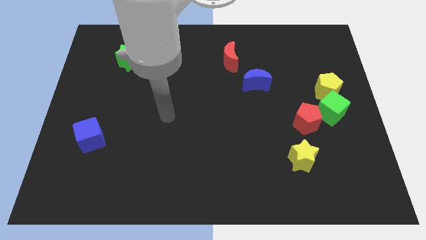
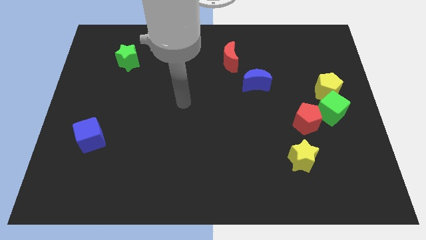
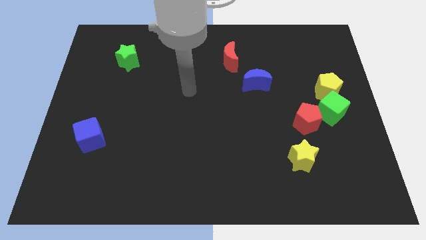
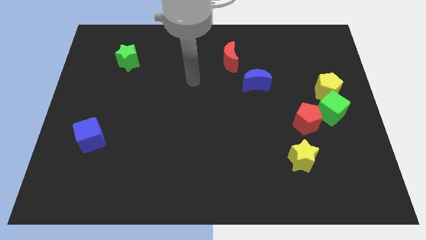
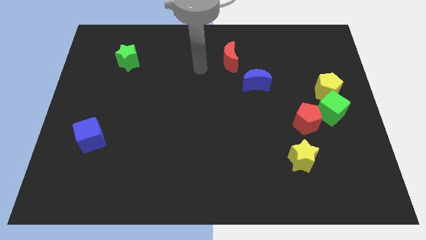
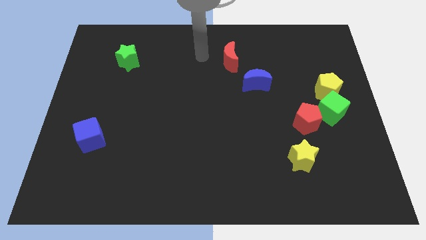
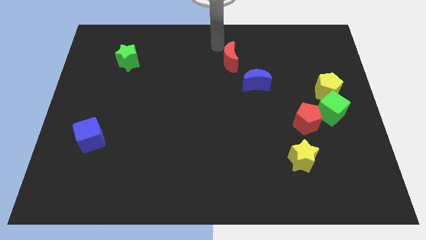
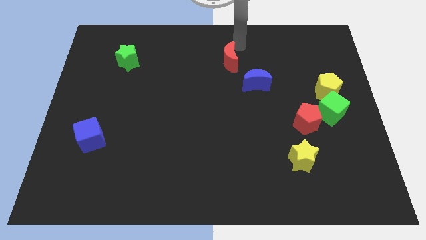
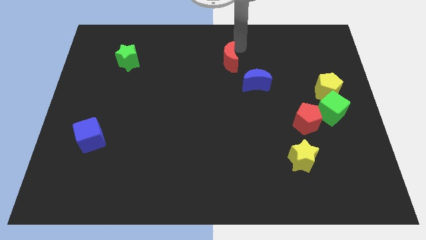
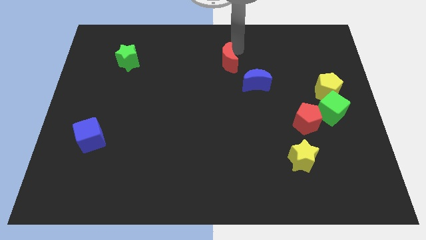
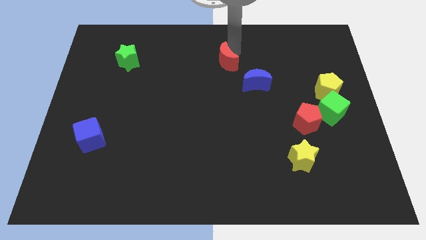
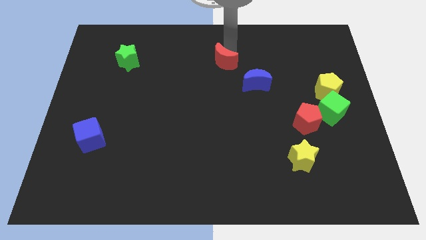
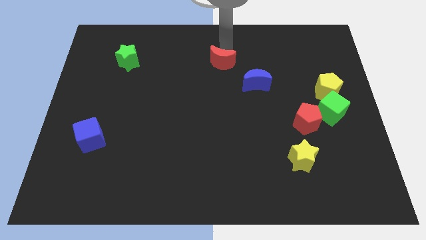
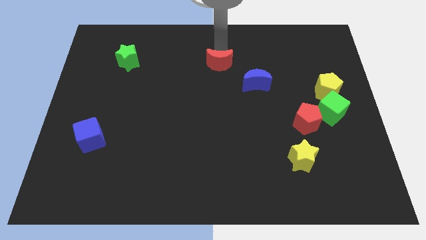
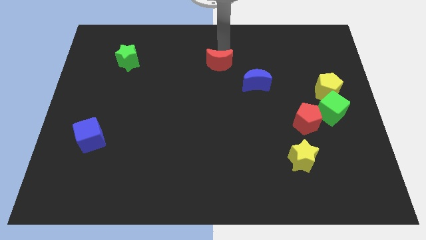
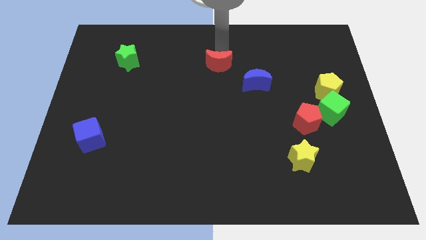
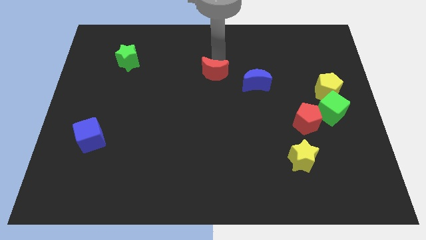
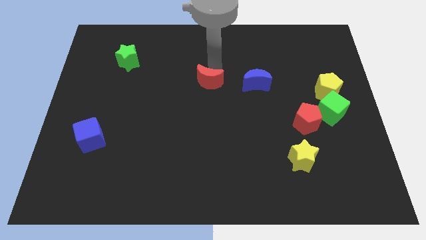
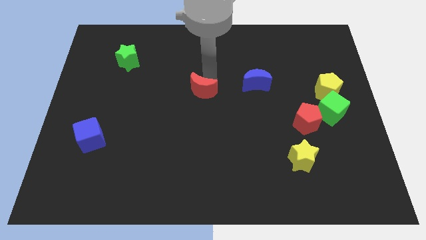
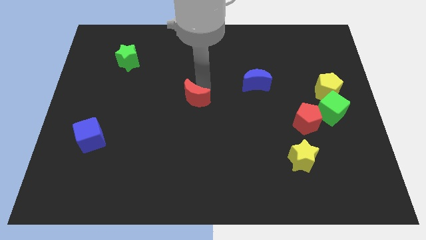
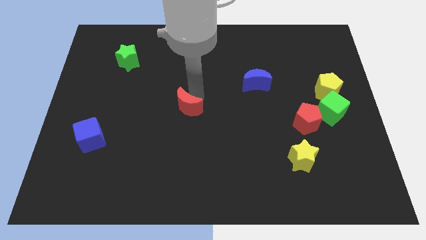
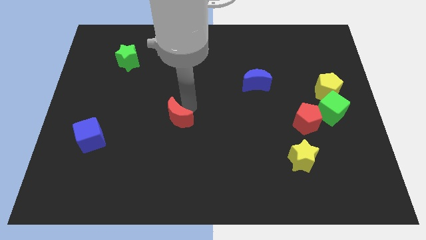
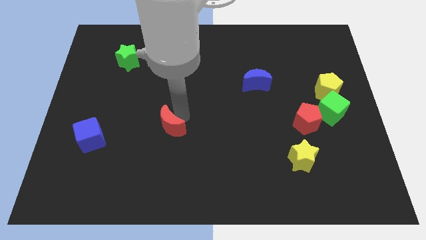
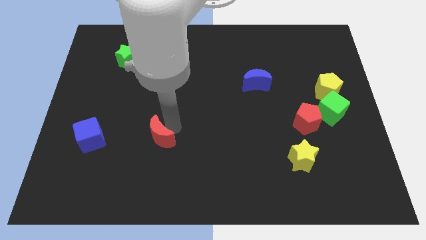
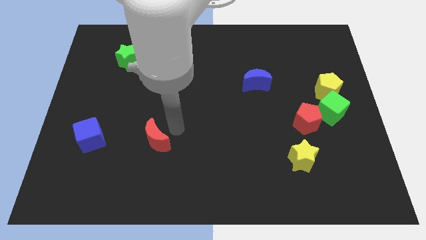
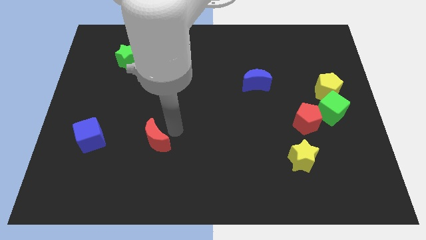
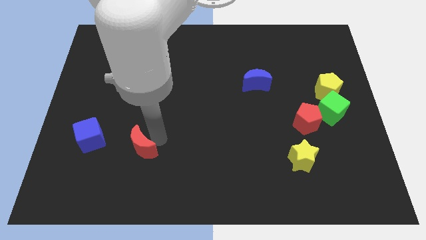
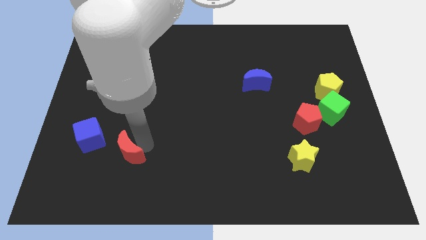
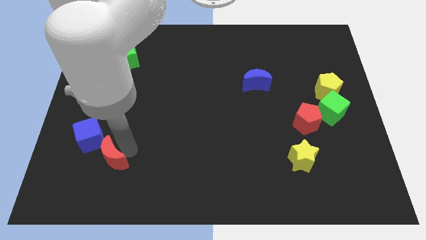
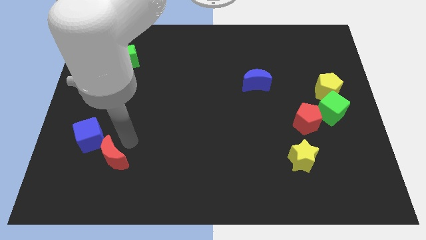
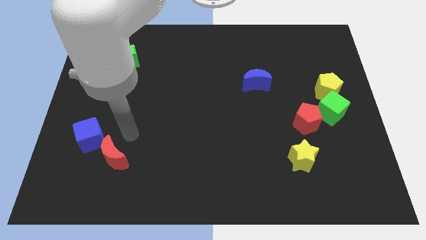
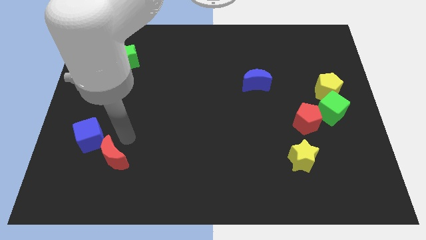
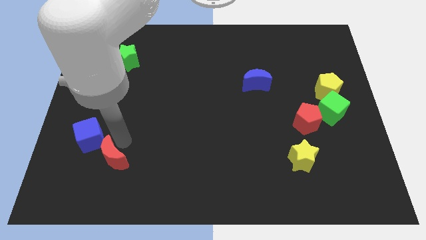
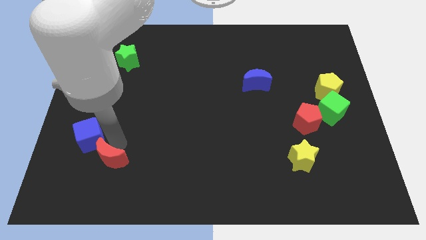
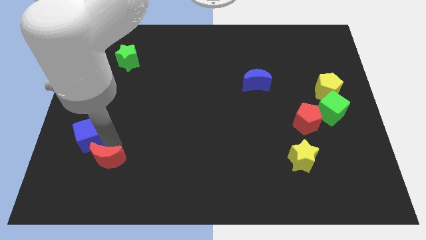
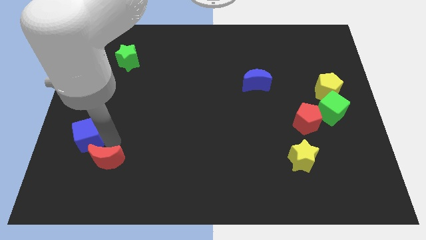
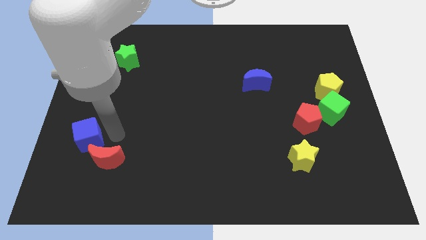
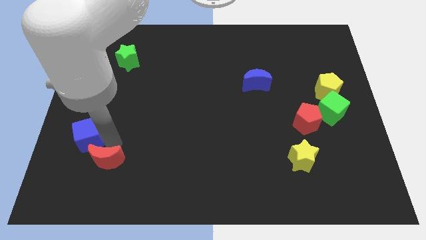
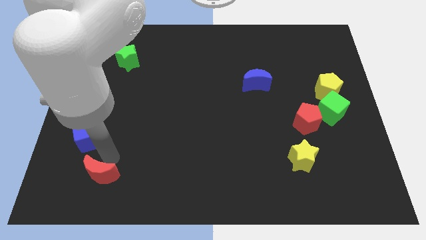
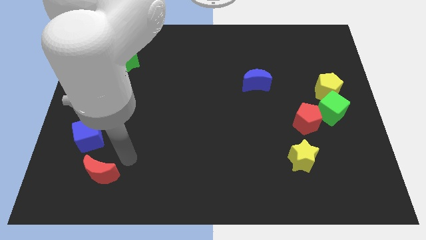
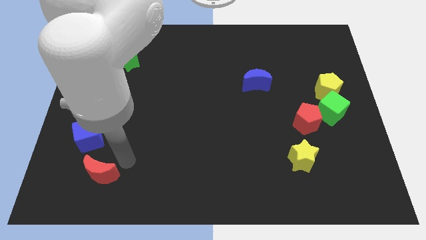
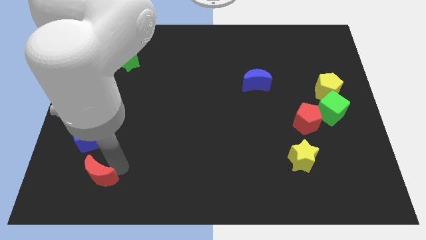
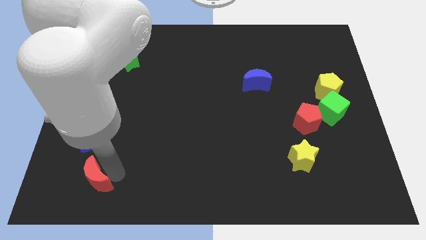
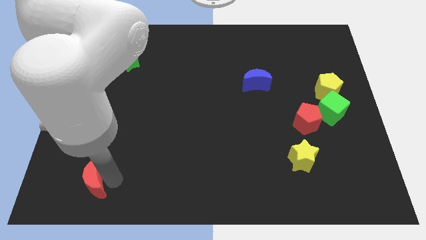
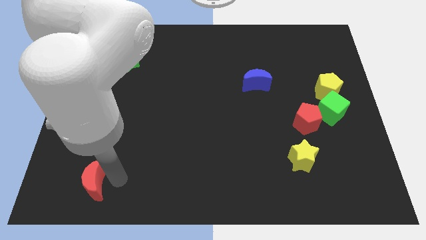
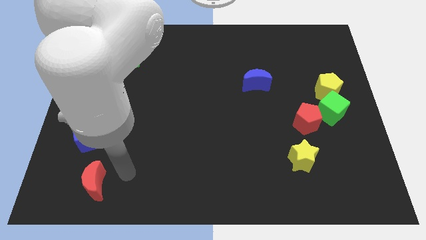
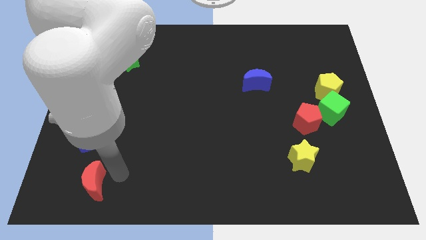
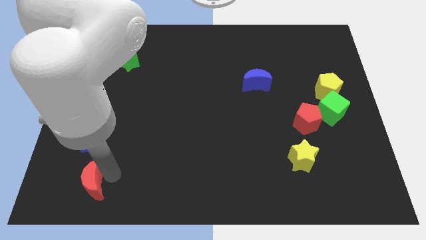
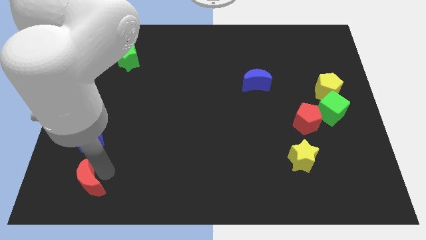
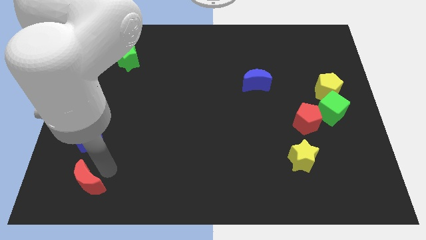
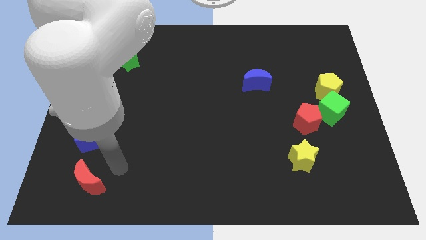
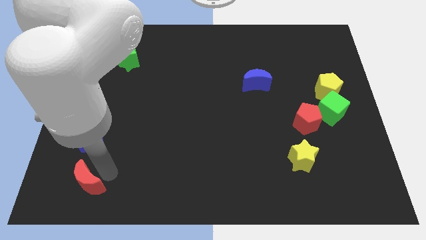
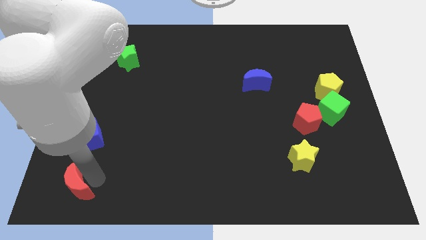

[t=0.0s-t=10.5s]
put the red moon to the lower left corner

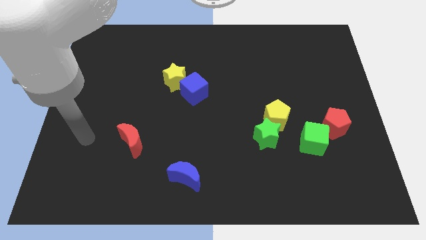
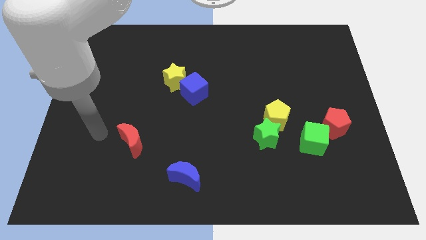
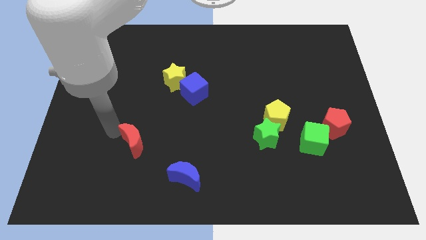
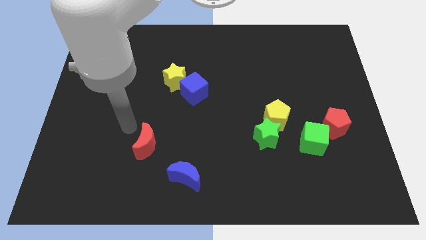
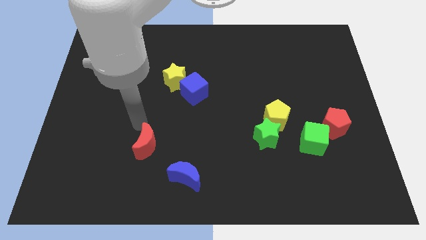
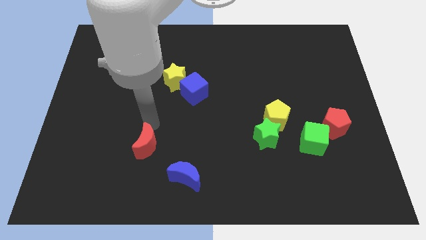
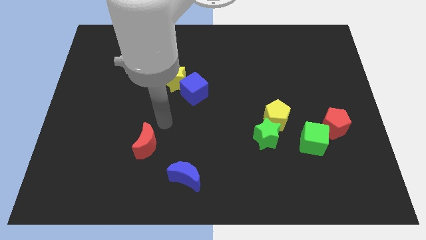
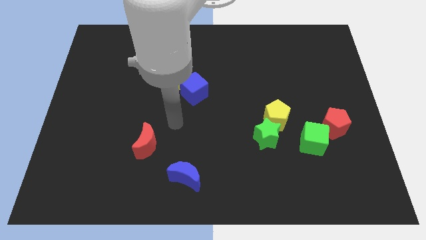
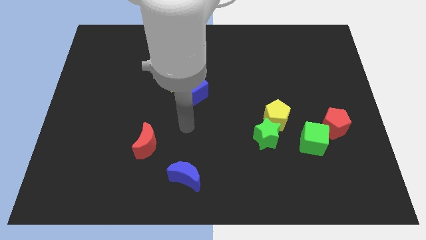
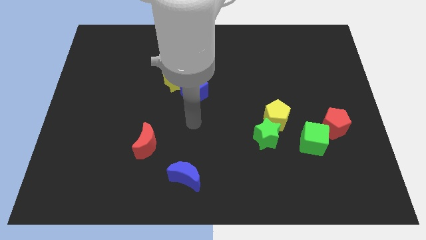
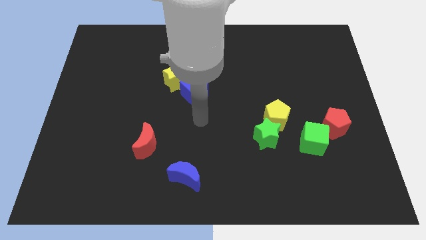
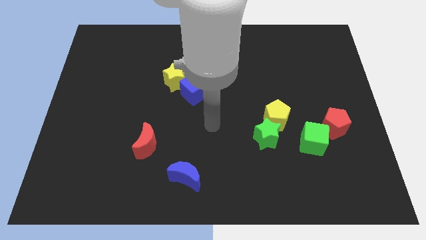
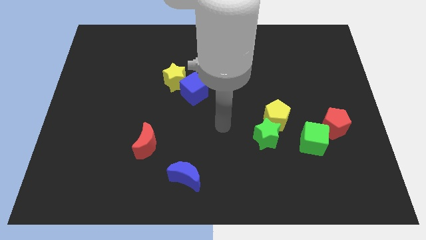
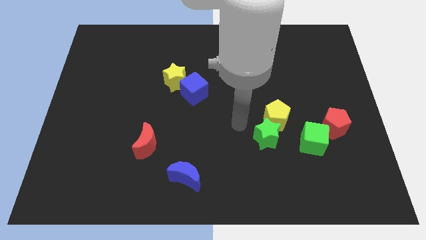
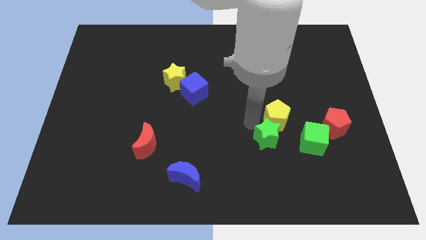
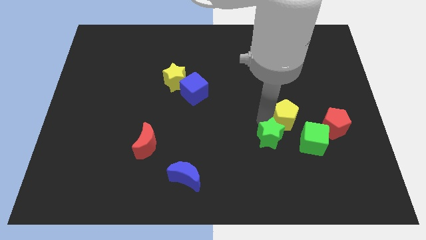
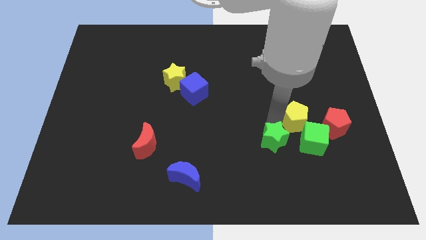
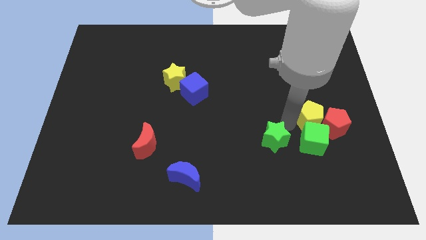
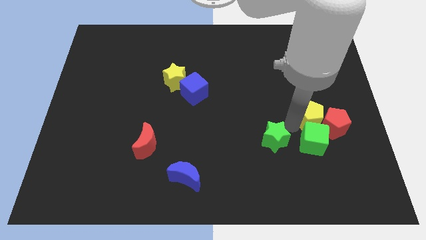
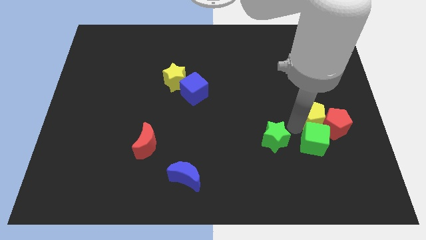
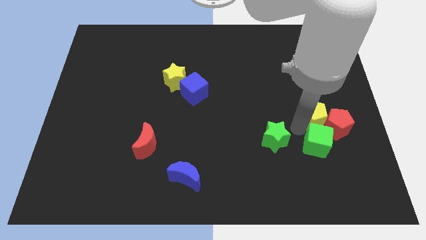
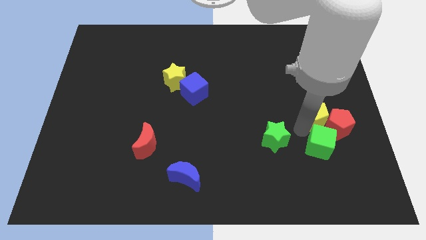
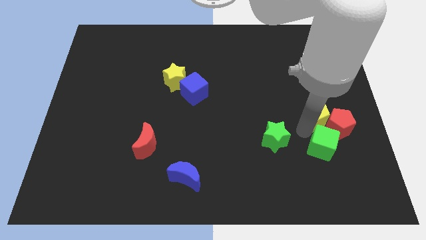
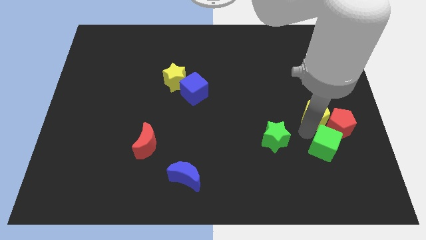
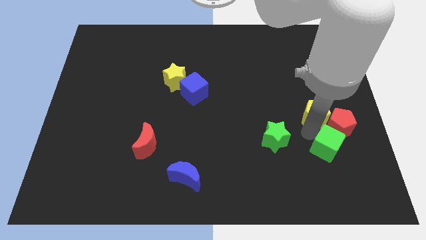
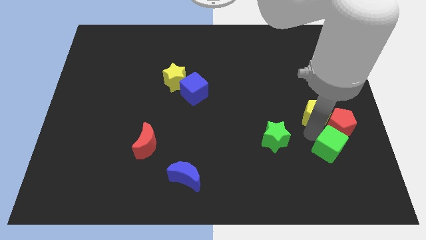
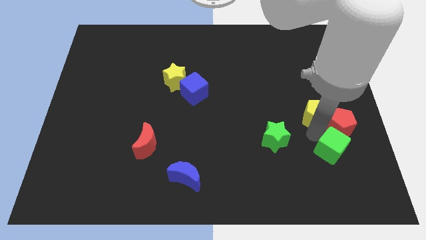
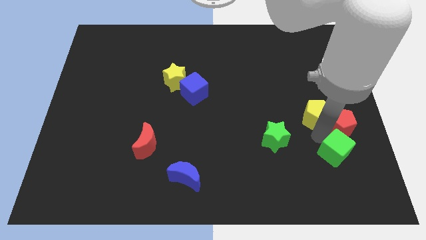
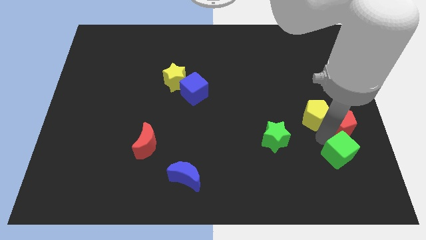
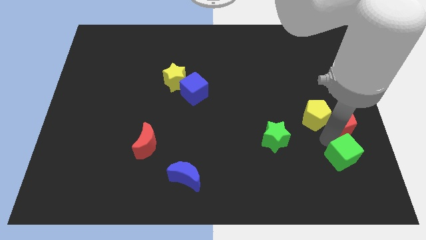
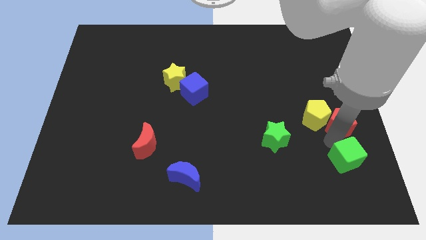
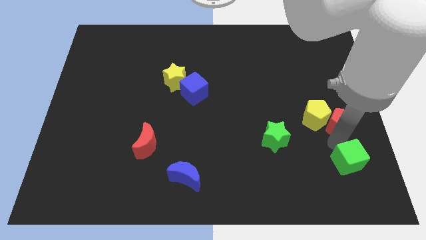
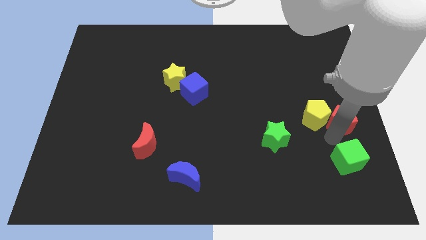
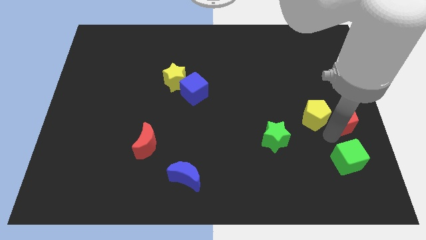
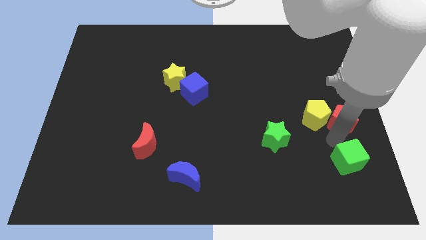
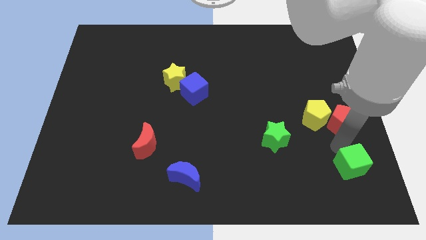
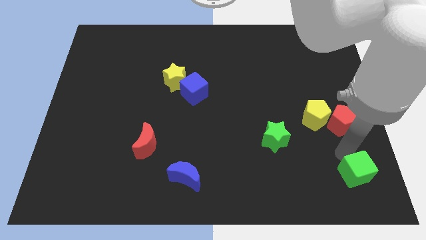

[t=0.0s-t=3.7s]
put the green cube to the bottom right
